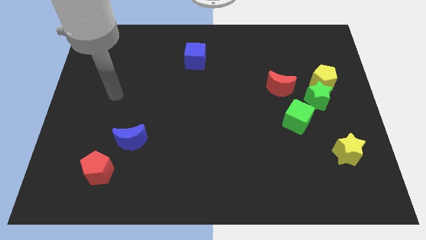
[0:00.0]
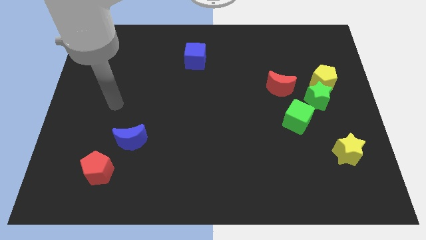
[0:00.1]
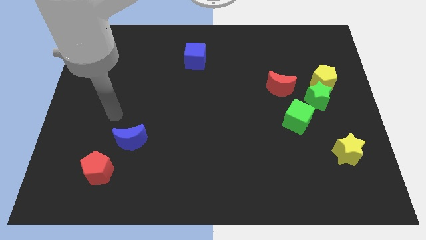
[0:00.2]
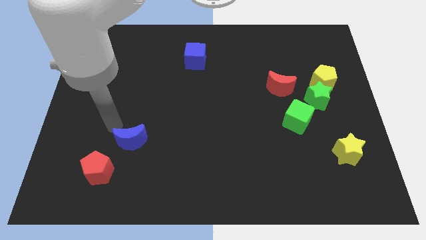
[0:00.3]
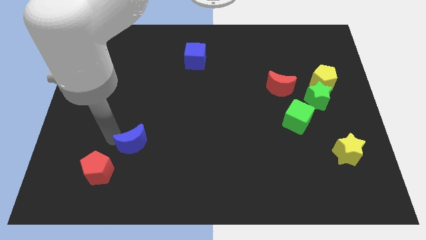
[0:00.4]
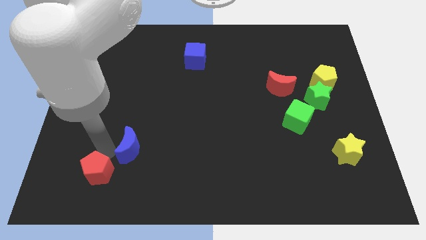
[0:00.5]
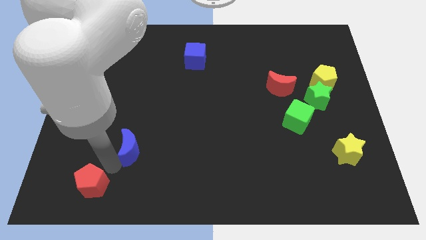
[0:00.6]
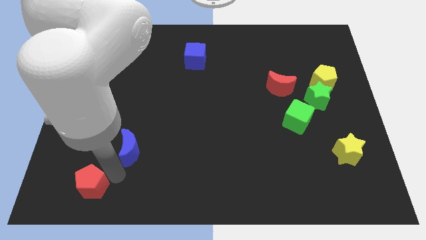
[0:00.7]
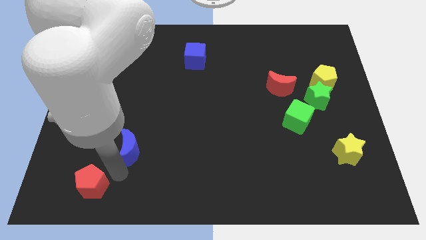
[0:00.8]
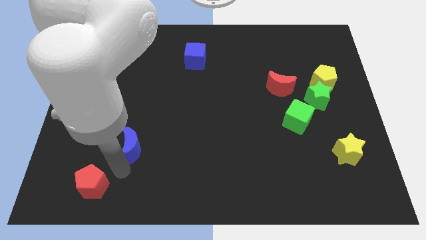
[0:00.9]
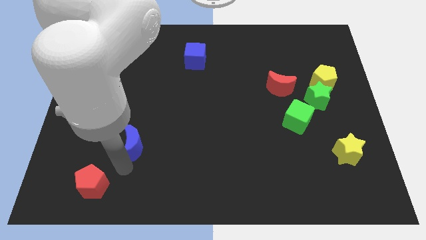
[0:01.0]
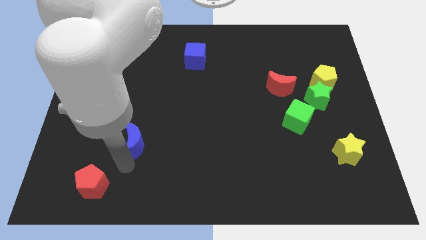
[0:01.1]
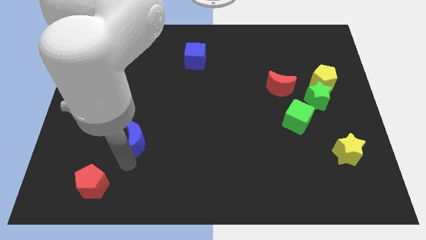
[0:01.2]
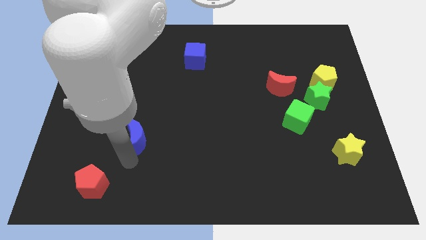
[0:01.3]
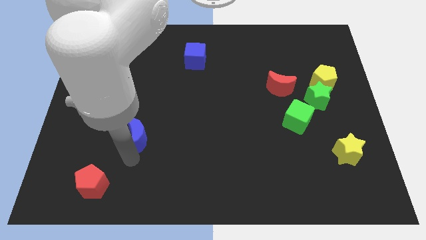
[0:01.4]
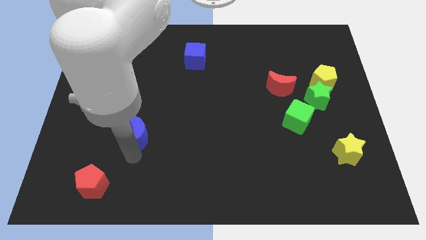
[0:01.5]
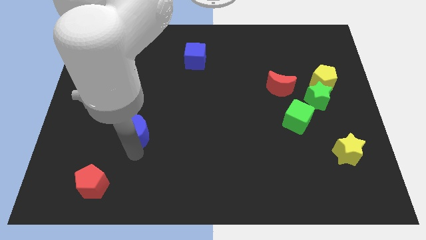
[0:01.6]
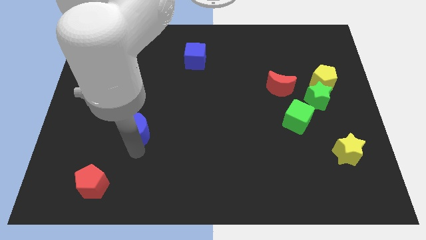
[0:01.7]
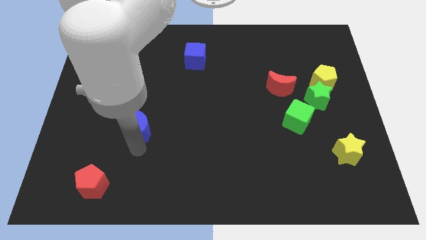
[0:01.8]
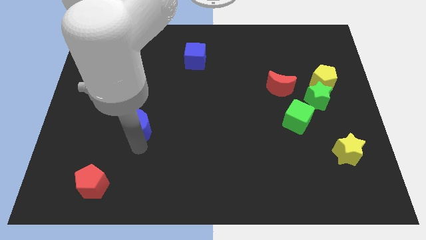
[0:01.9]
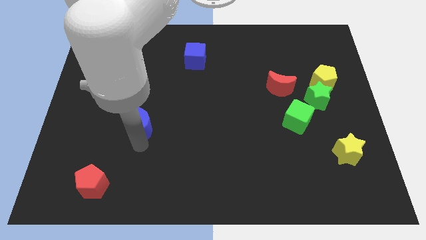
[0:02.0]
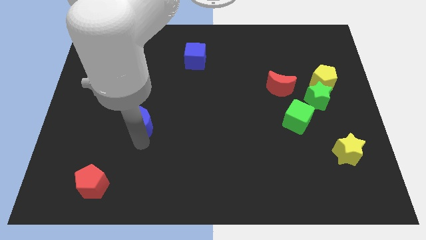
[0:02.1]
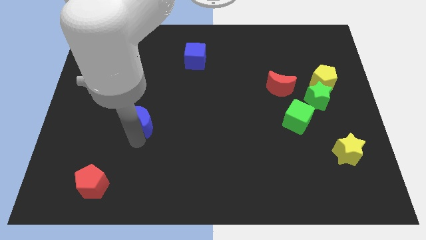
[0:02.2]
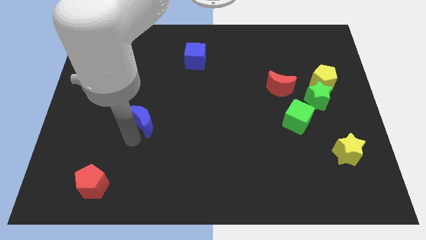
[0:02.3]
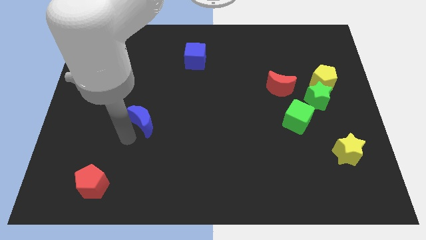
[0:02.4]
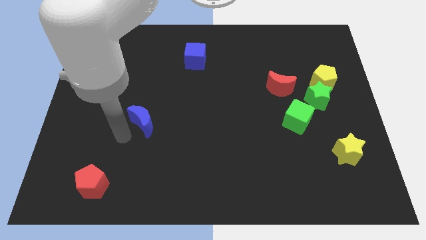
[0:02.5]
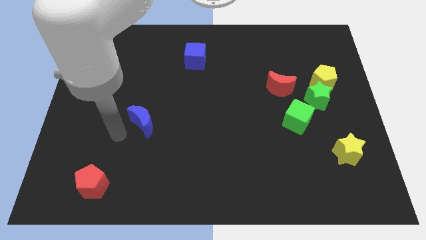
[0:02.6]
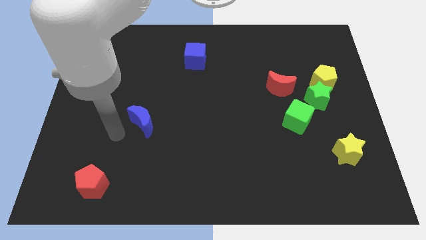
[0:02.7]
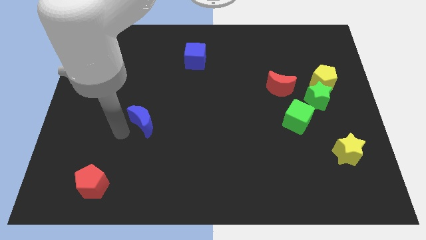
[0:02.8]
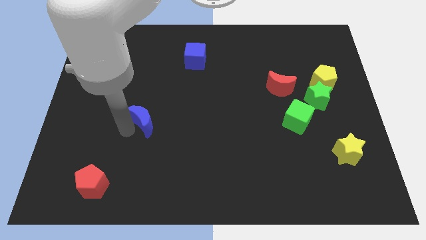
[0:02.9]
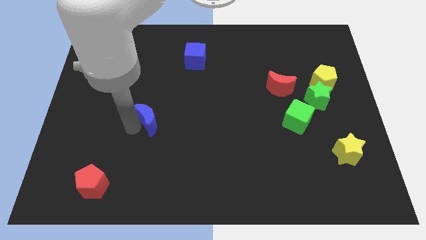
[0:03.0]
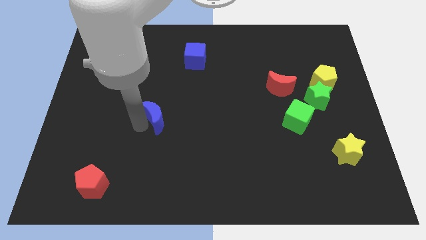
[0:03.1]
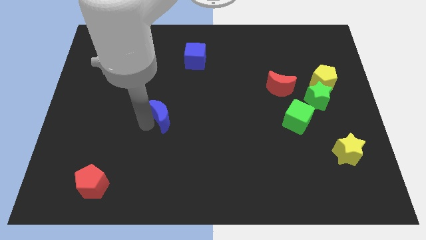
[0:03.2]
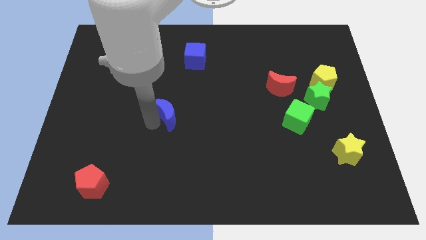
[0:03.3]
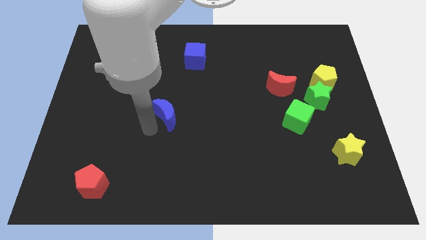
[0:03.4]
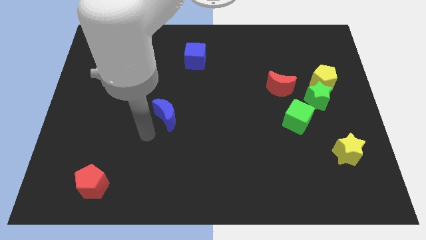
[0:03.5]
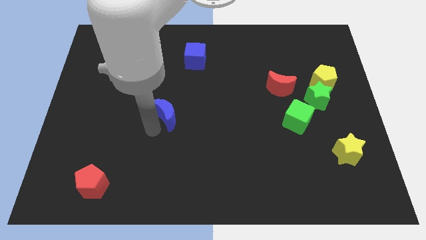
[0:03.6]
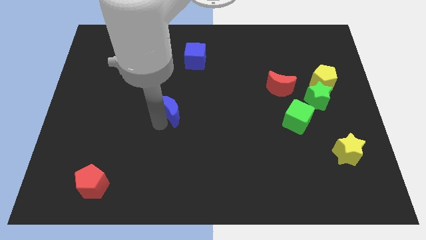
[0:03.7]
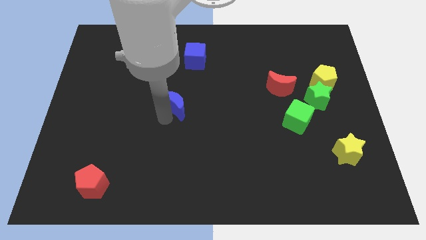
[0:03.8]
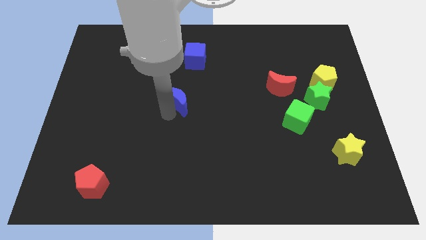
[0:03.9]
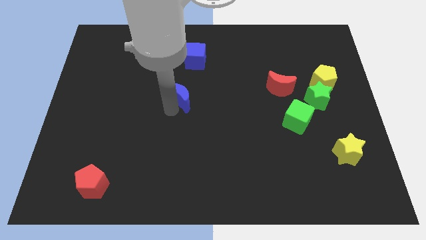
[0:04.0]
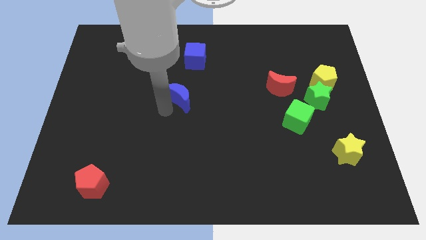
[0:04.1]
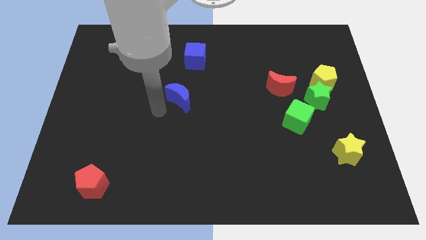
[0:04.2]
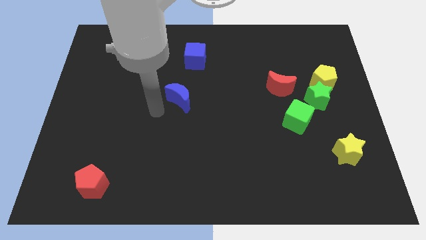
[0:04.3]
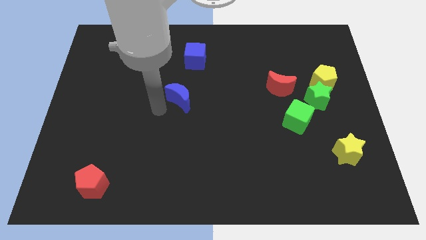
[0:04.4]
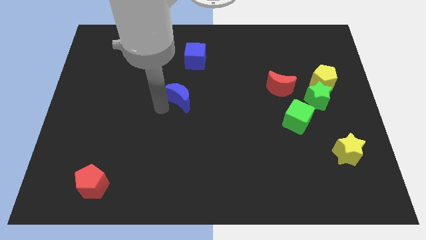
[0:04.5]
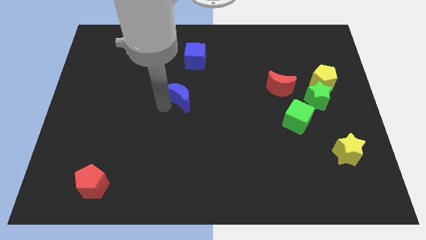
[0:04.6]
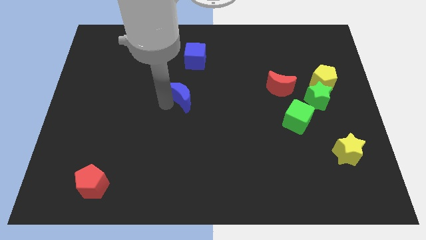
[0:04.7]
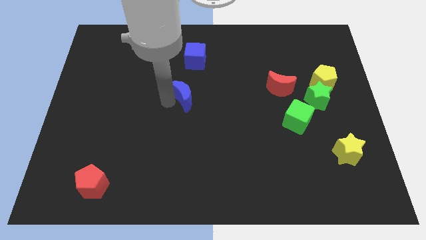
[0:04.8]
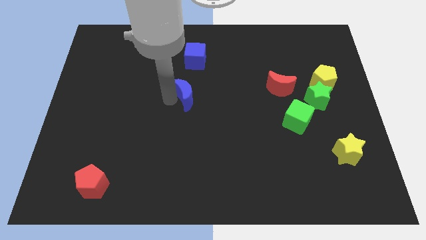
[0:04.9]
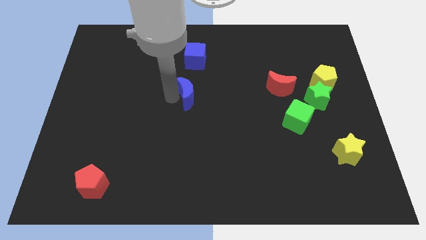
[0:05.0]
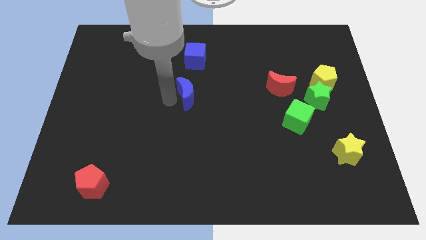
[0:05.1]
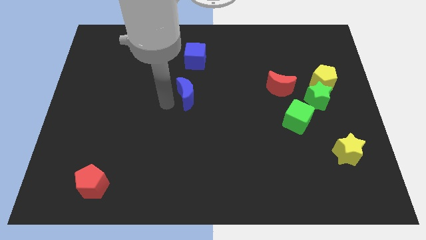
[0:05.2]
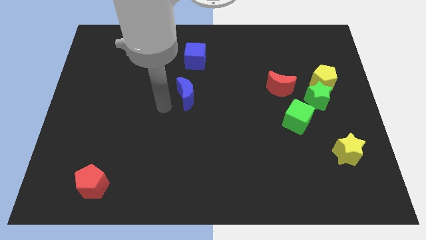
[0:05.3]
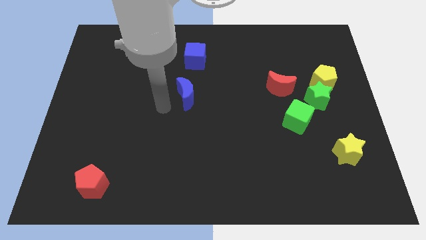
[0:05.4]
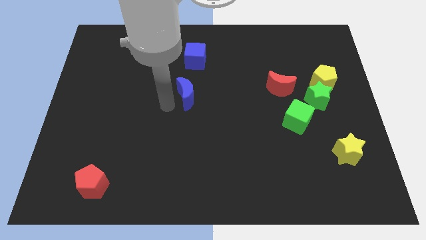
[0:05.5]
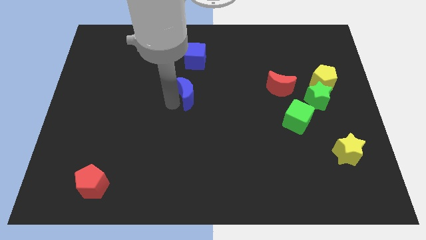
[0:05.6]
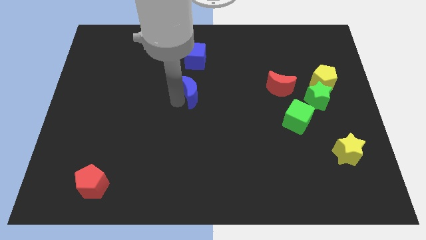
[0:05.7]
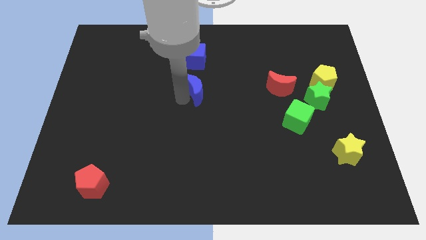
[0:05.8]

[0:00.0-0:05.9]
move the blue moon up and to the right

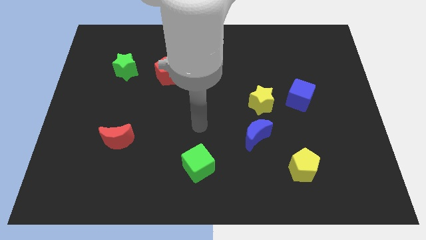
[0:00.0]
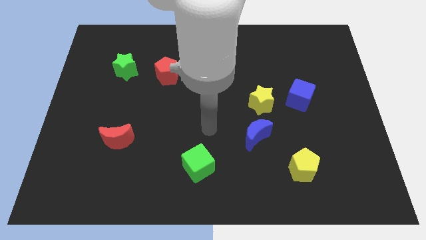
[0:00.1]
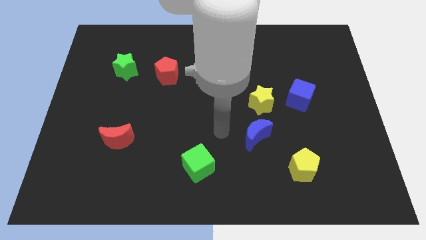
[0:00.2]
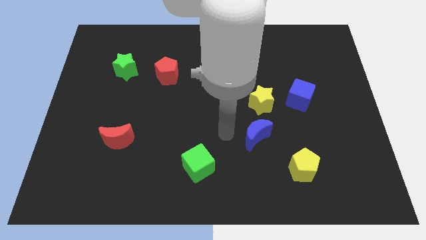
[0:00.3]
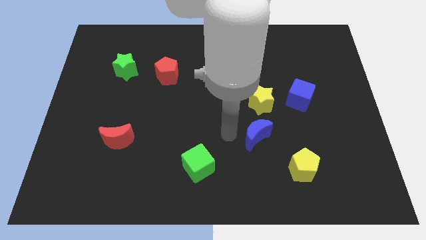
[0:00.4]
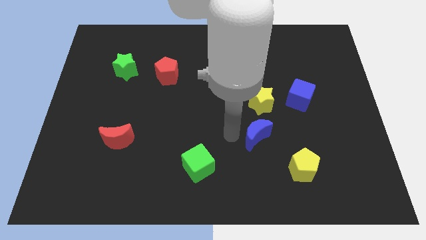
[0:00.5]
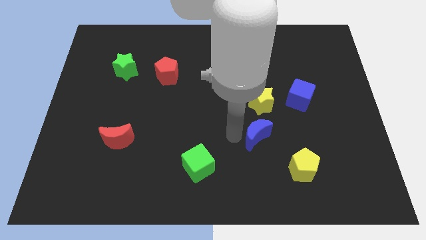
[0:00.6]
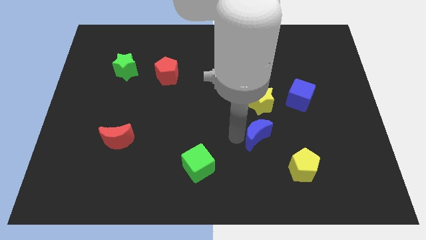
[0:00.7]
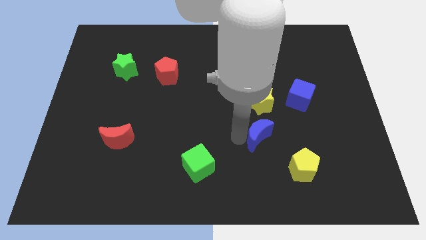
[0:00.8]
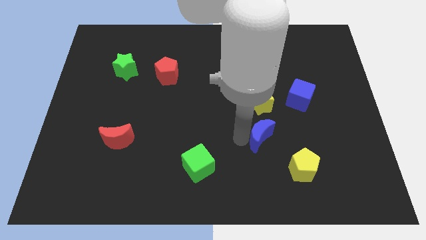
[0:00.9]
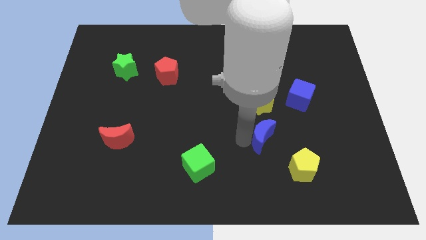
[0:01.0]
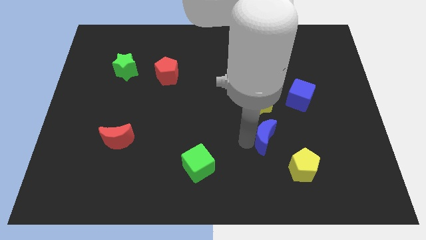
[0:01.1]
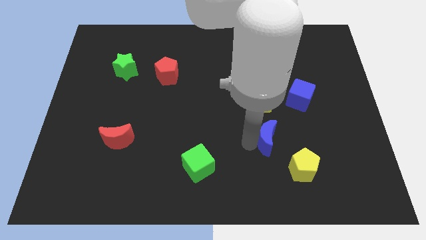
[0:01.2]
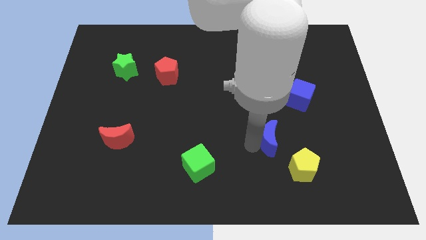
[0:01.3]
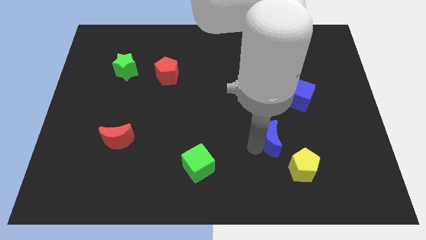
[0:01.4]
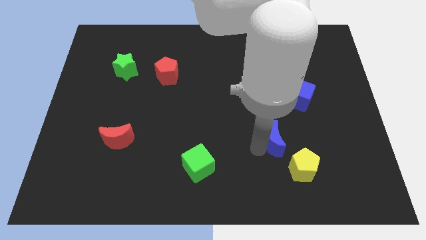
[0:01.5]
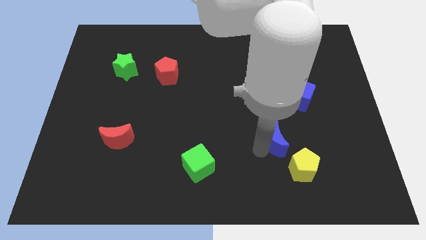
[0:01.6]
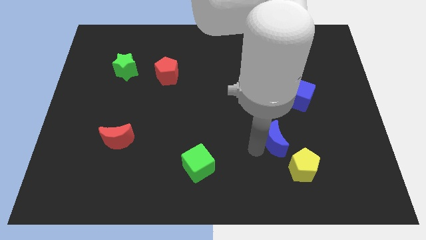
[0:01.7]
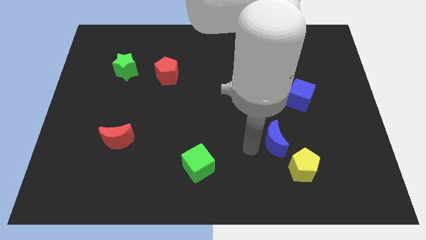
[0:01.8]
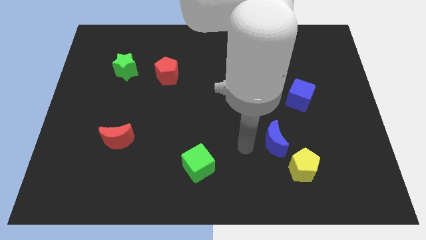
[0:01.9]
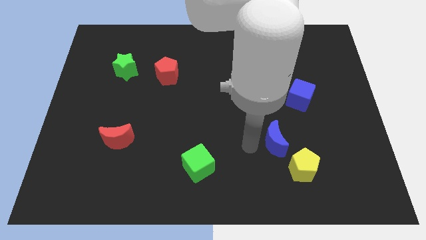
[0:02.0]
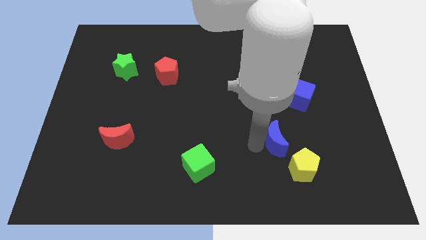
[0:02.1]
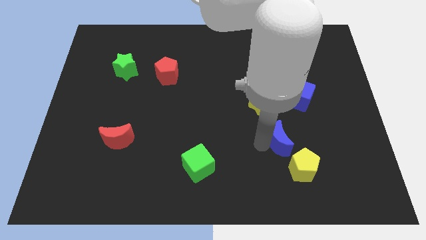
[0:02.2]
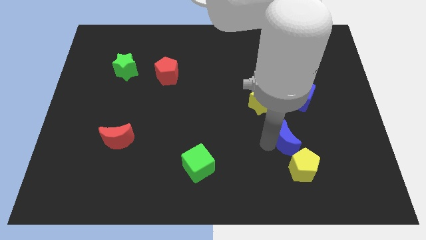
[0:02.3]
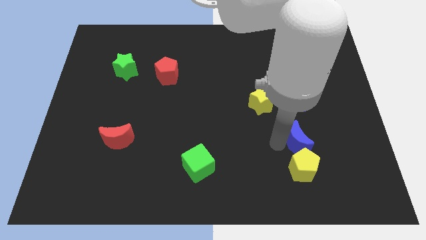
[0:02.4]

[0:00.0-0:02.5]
slightly push the blue moon right
